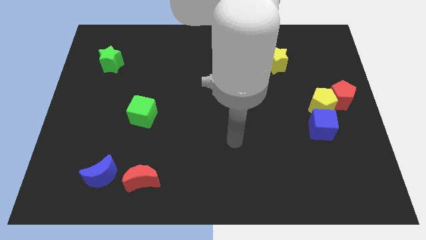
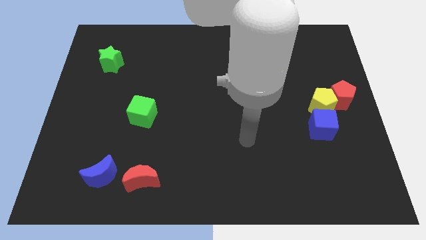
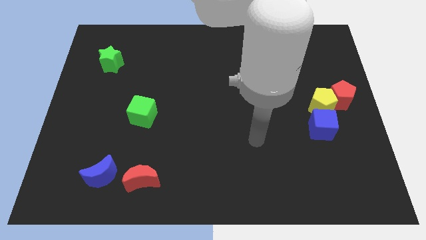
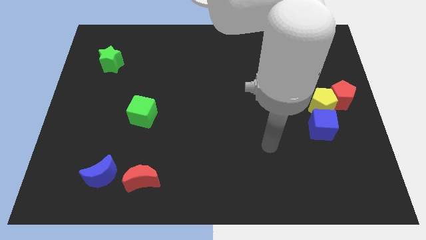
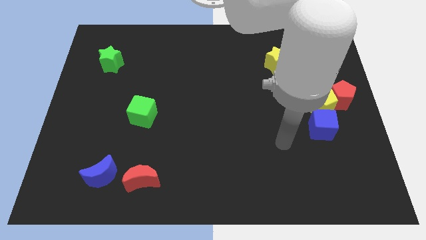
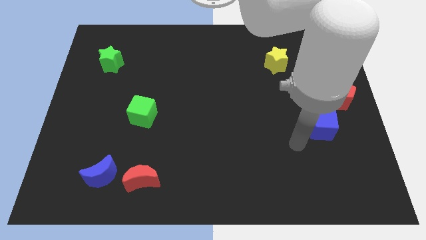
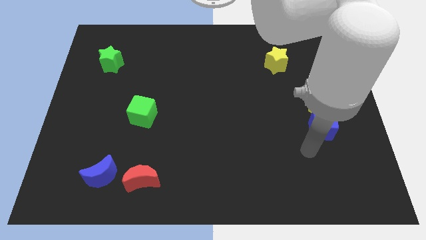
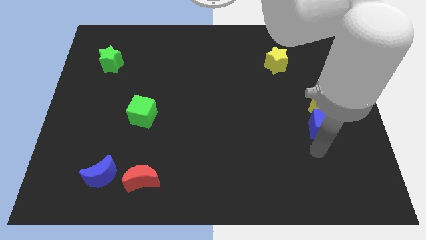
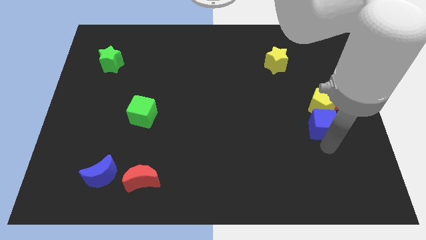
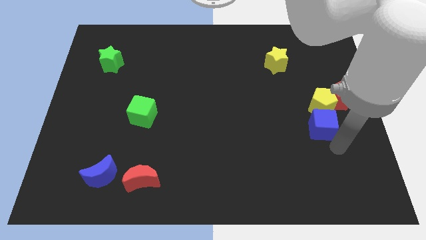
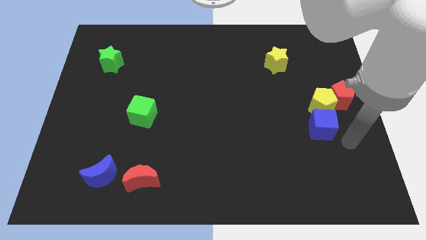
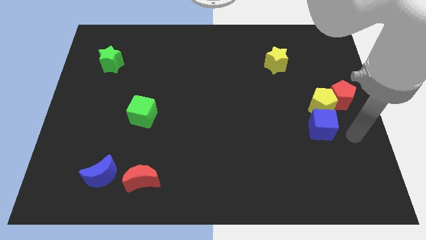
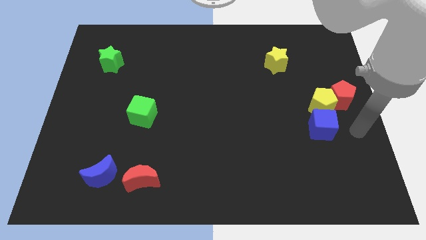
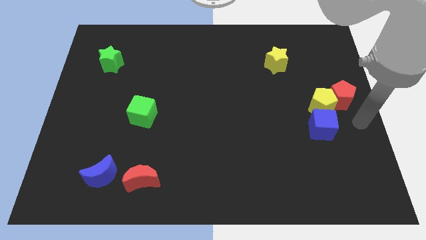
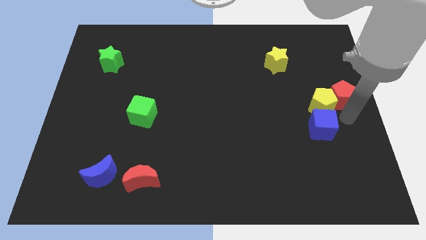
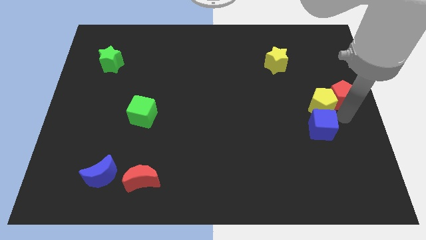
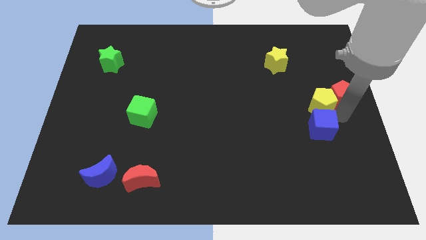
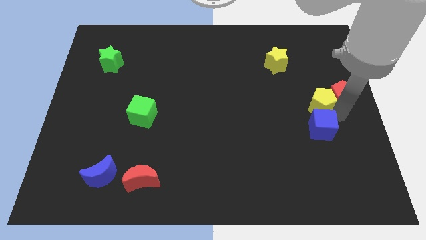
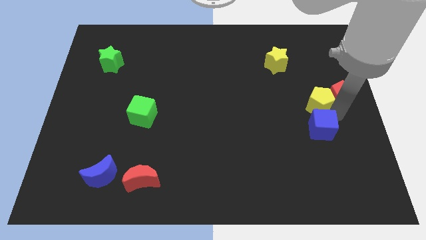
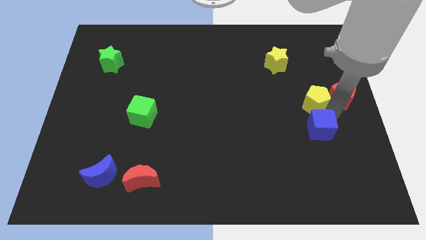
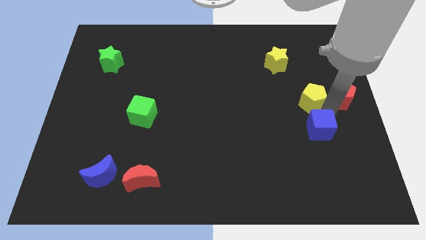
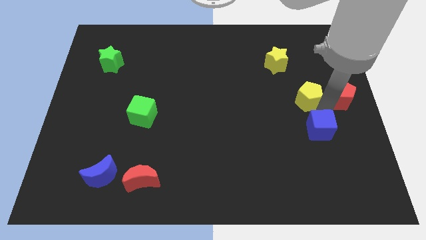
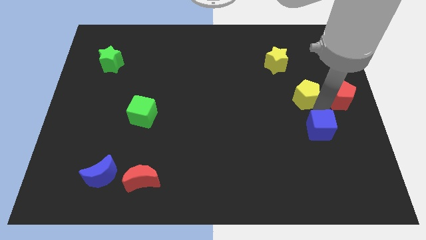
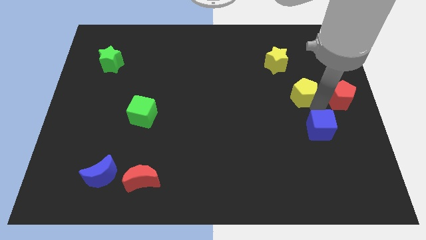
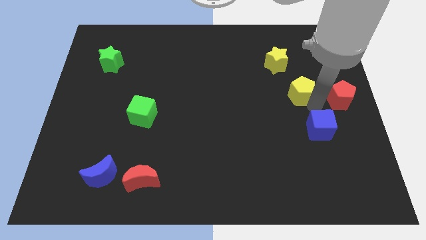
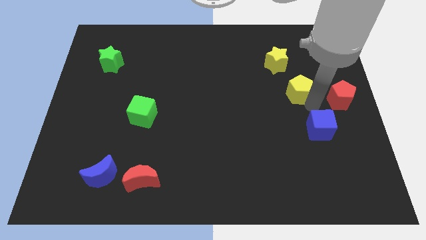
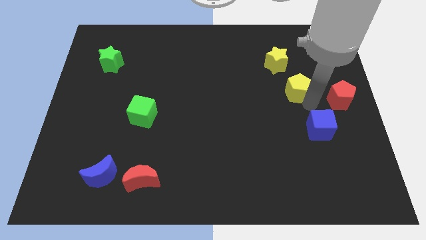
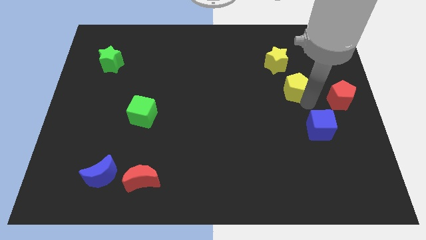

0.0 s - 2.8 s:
separate the yellow pentagon from the red pentagon and blue cube

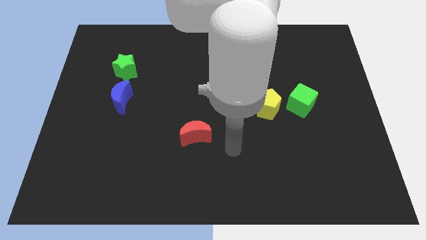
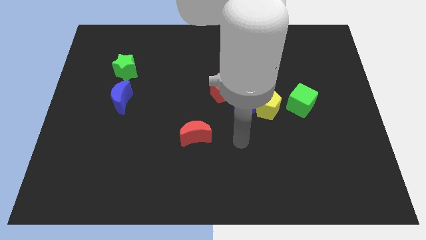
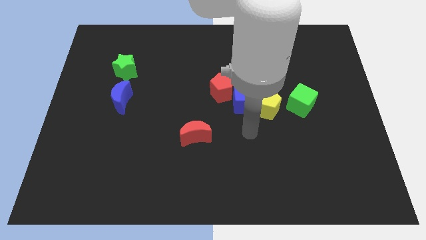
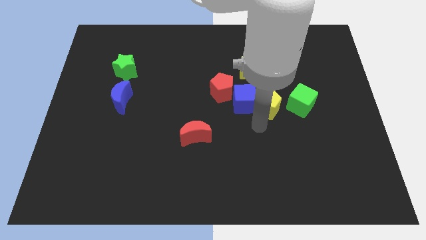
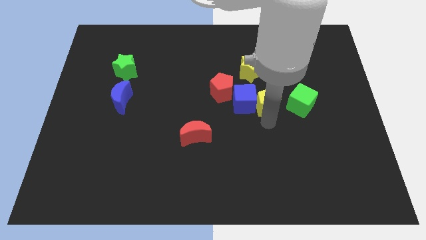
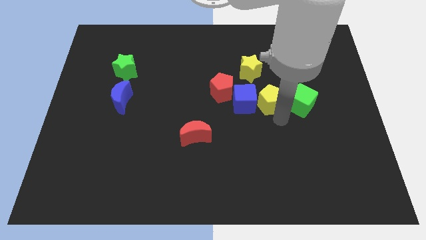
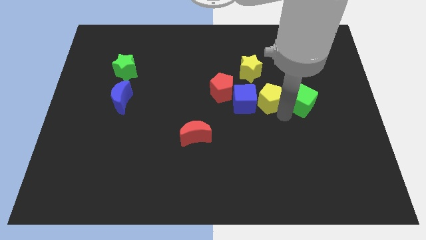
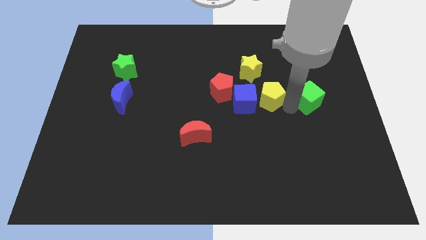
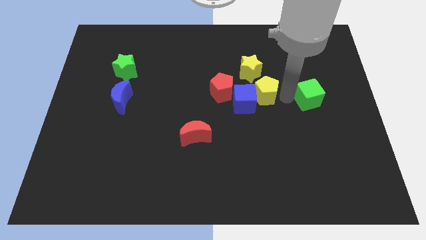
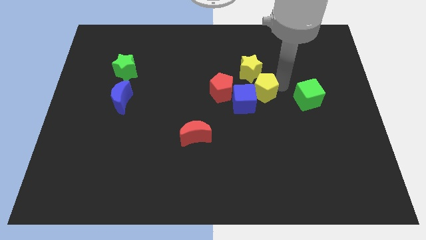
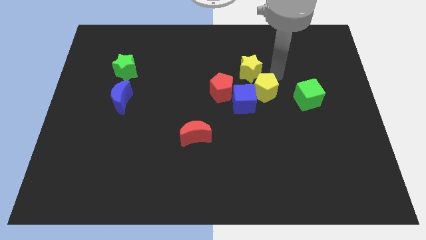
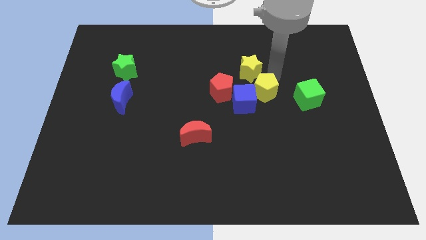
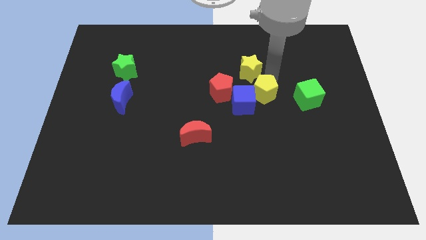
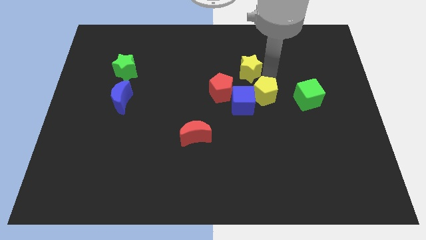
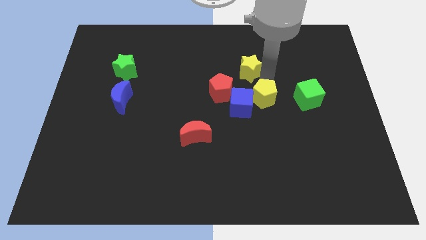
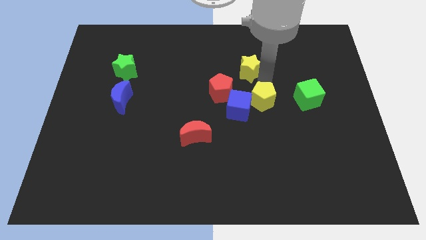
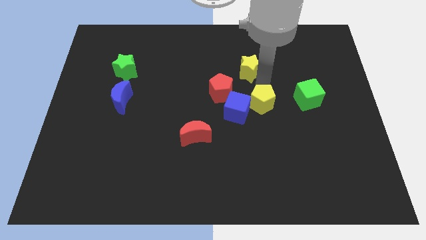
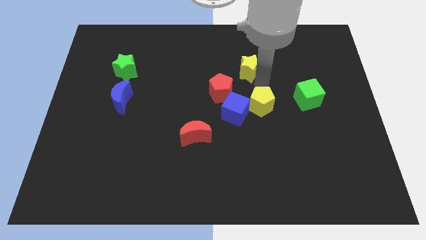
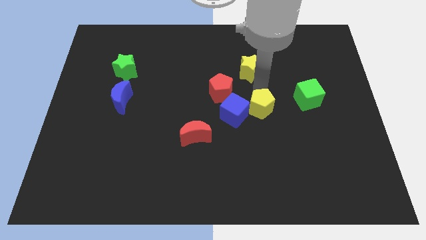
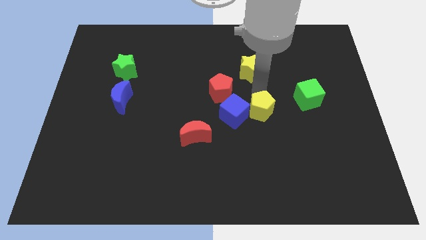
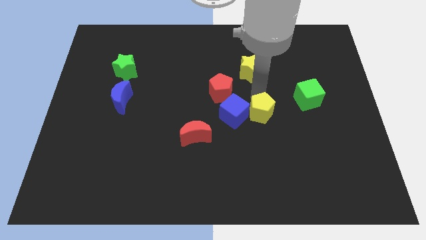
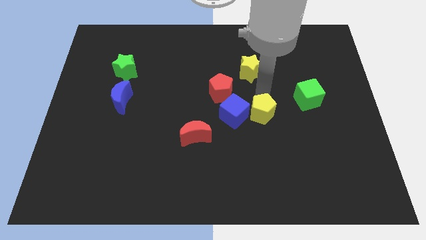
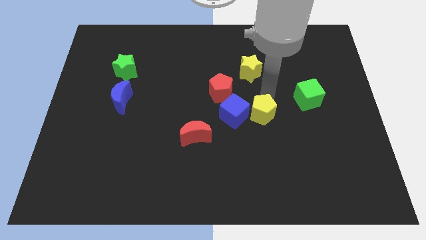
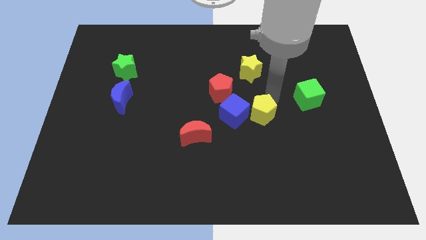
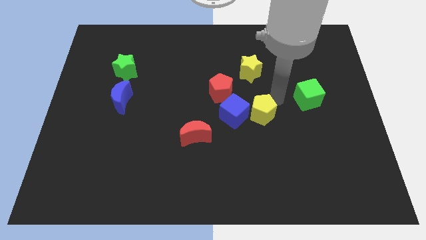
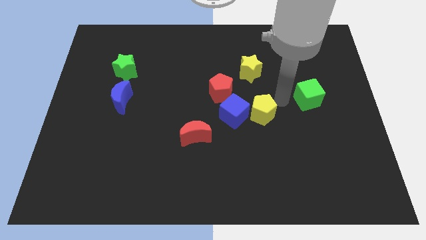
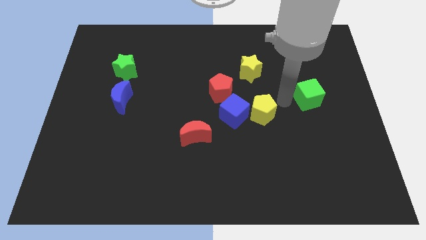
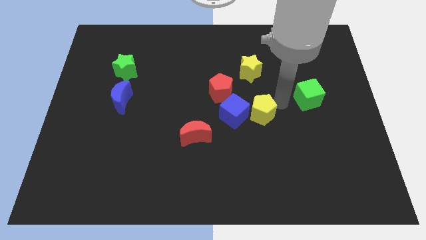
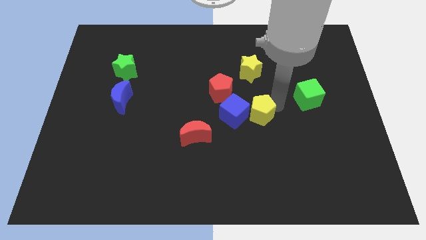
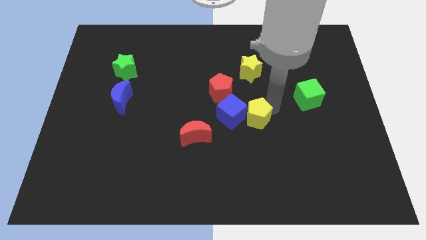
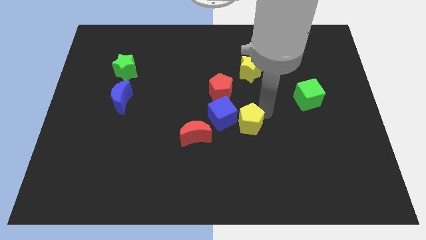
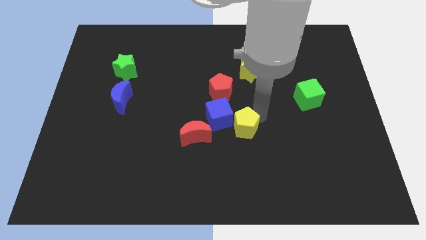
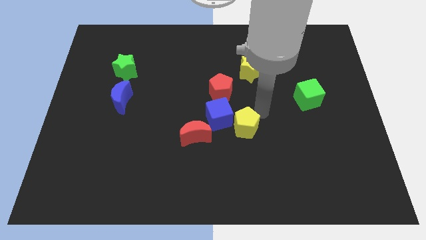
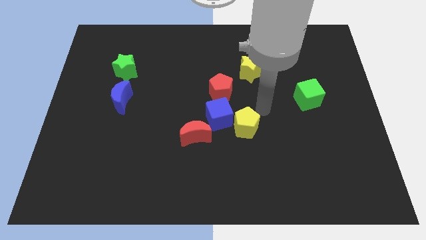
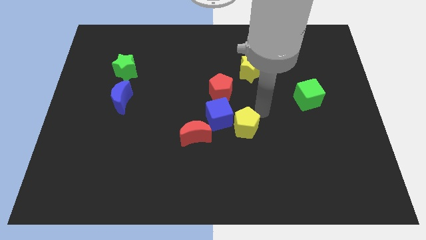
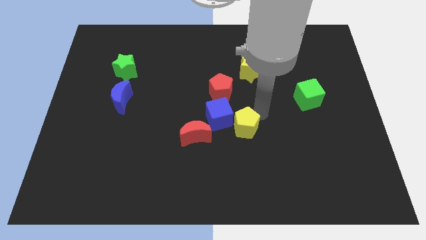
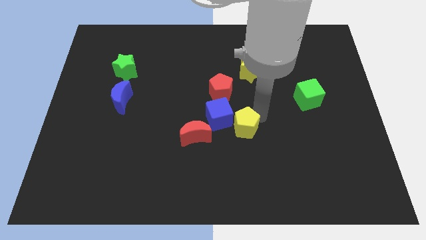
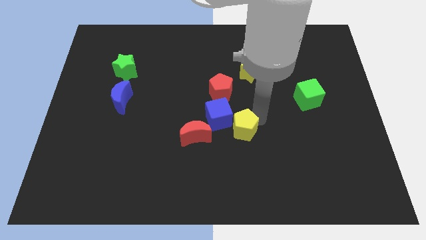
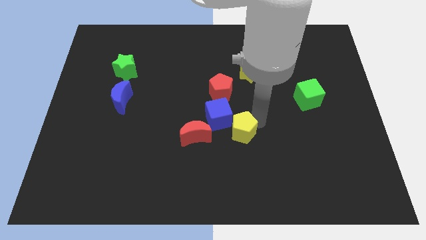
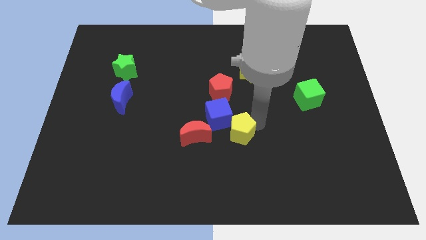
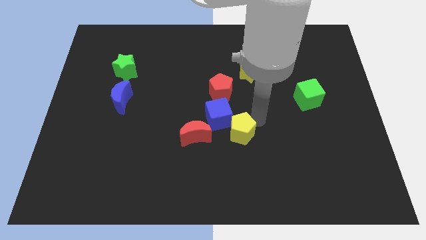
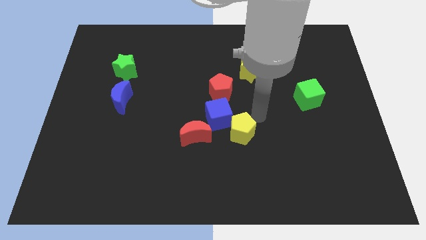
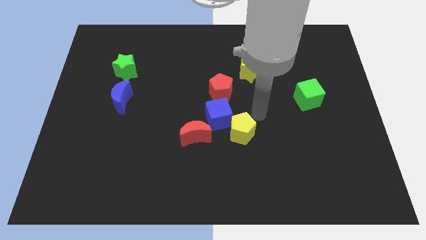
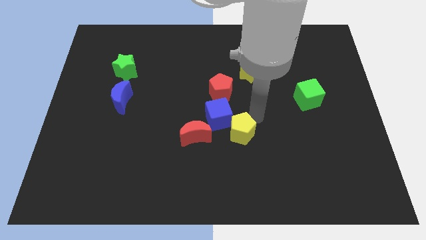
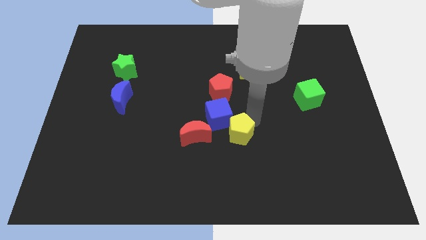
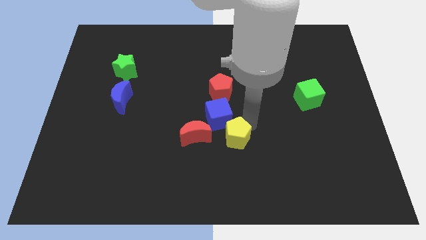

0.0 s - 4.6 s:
pull the yellow pentagon apart from the blue cube and green cube

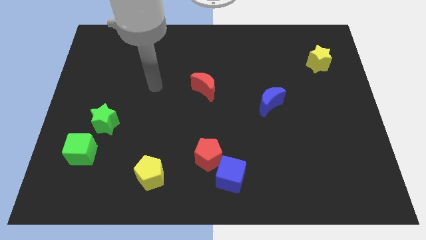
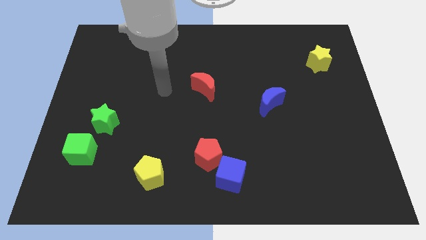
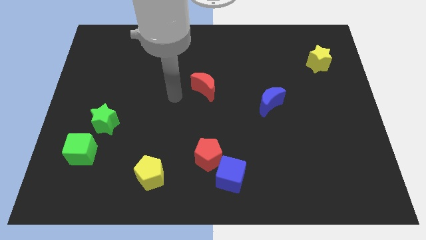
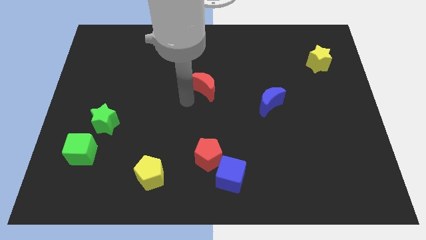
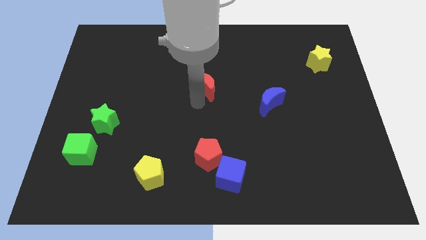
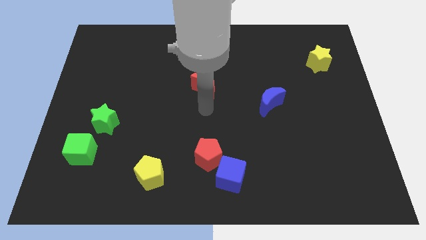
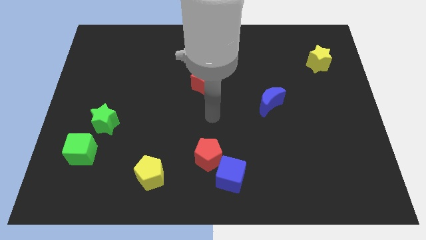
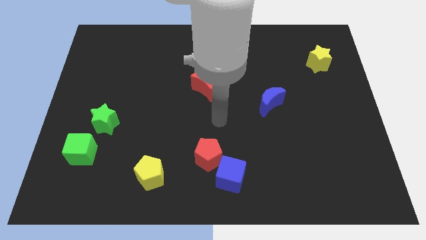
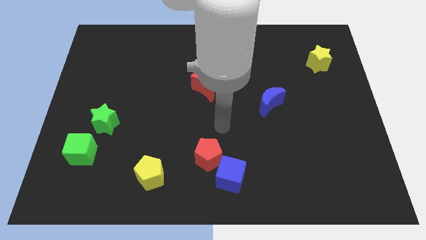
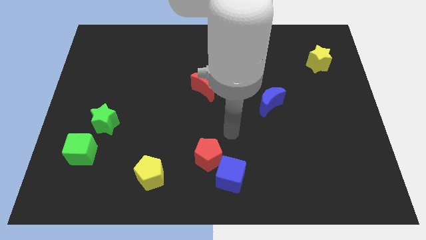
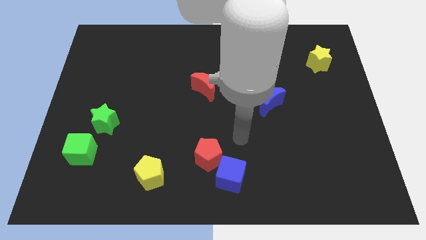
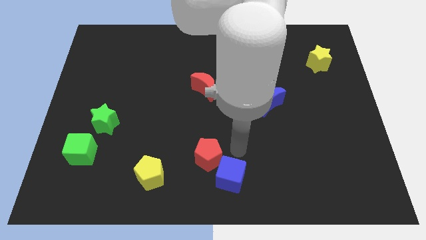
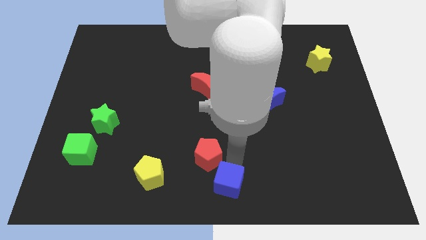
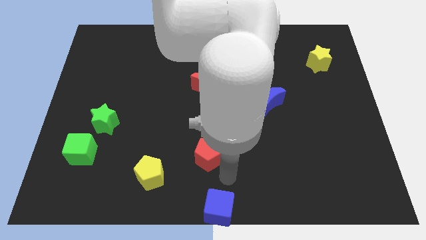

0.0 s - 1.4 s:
pull the red pentagon apart from the blue cube

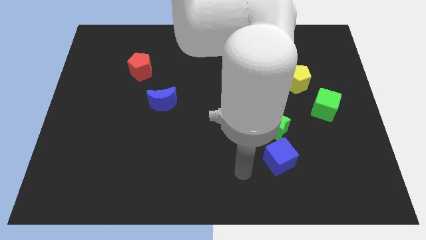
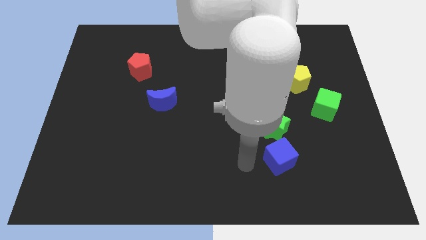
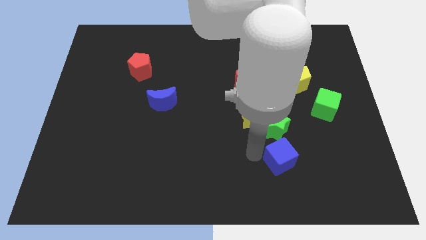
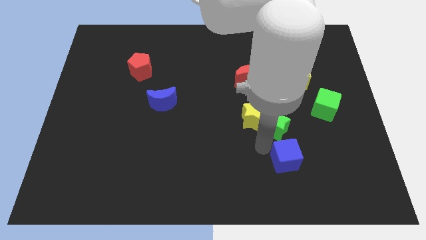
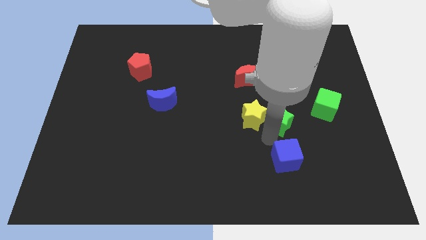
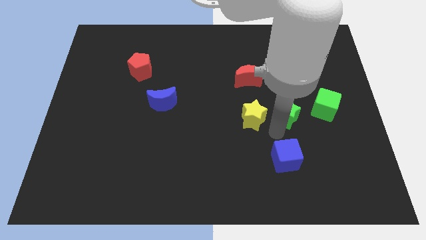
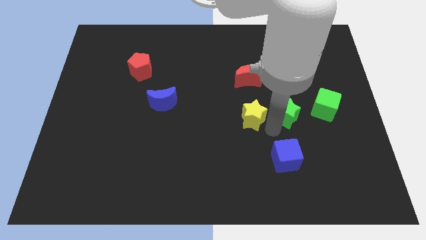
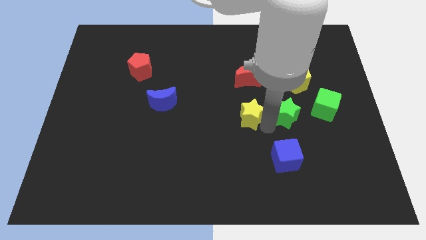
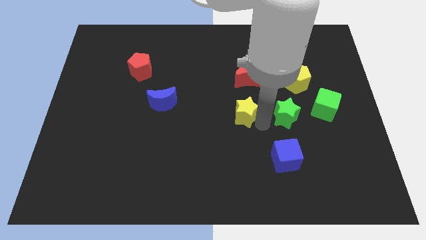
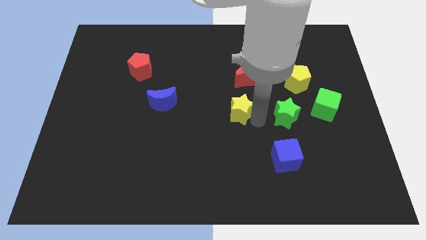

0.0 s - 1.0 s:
pull the yellow star apart from the green star
